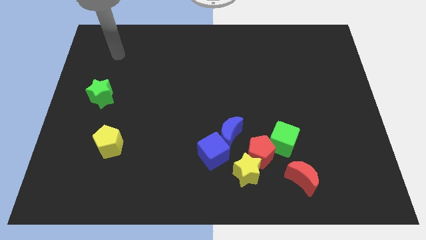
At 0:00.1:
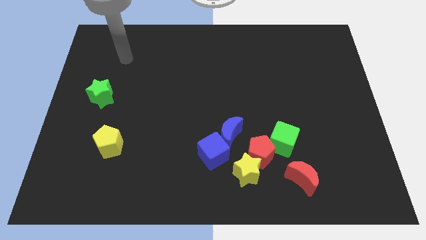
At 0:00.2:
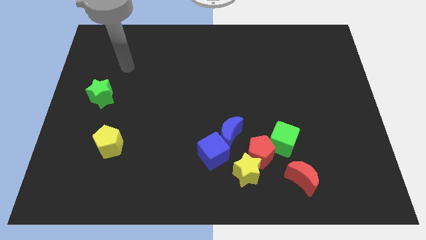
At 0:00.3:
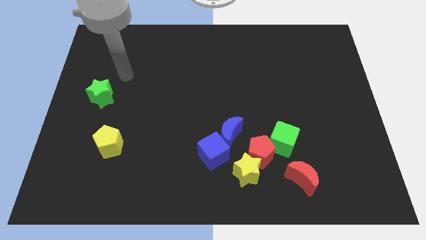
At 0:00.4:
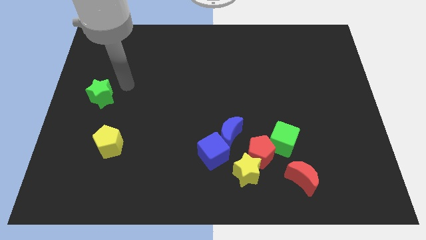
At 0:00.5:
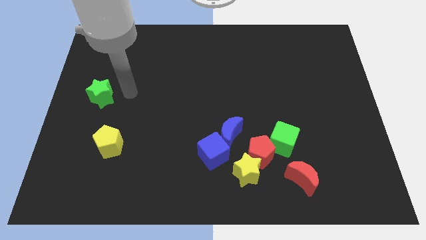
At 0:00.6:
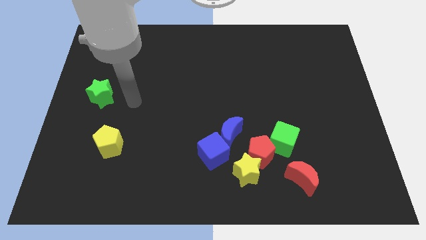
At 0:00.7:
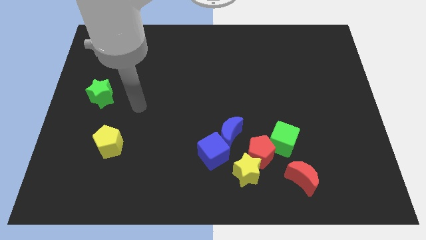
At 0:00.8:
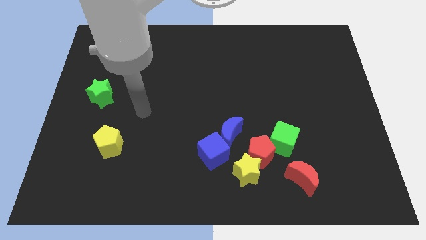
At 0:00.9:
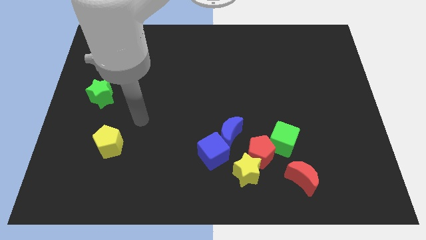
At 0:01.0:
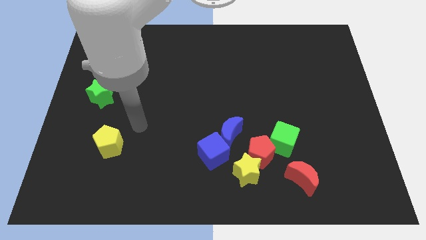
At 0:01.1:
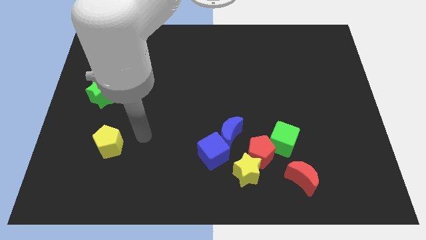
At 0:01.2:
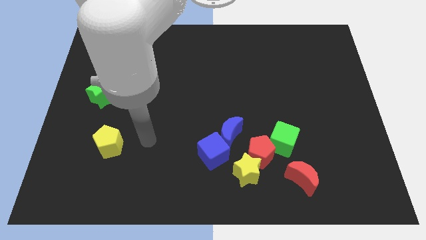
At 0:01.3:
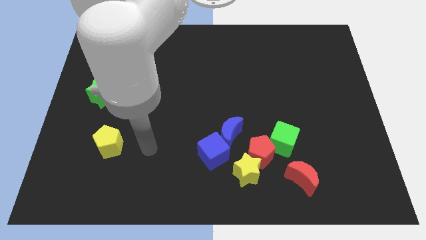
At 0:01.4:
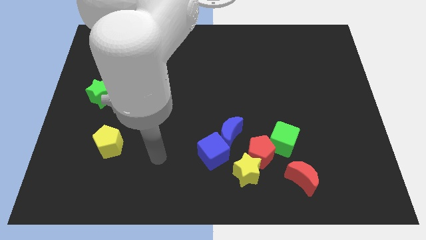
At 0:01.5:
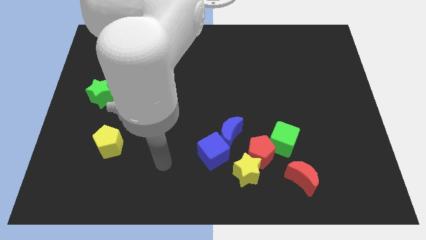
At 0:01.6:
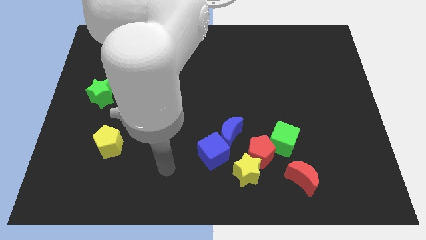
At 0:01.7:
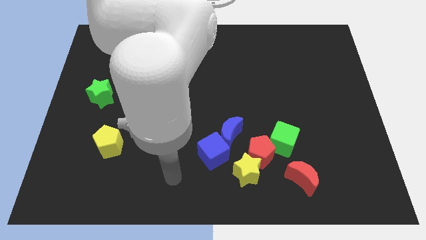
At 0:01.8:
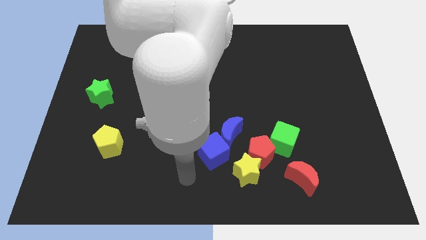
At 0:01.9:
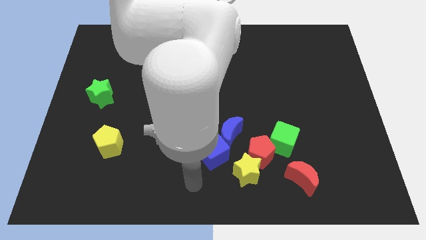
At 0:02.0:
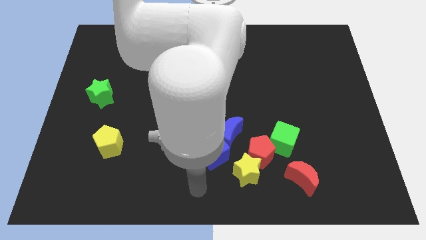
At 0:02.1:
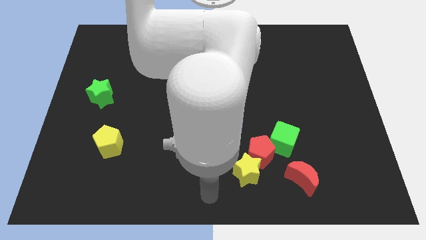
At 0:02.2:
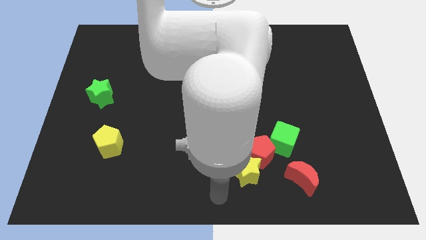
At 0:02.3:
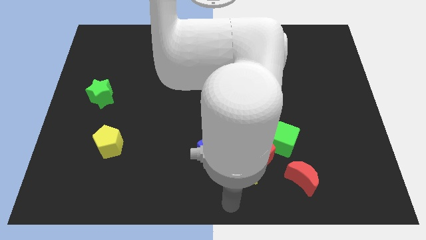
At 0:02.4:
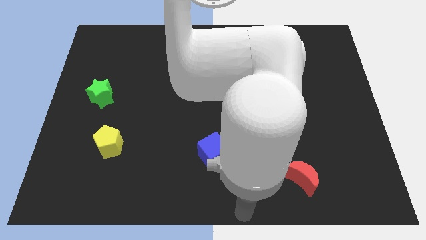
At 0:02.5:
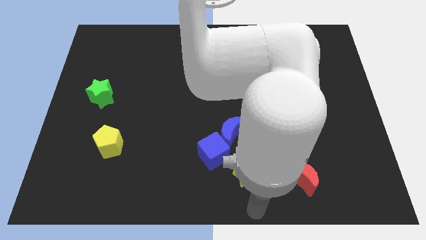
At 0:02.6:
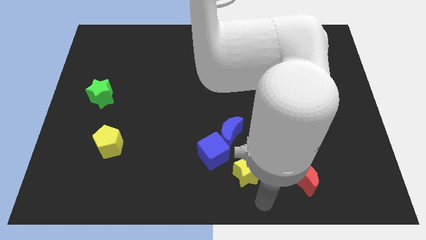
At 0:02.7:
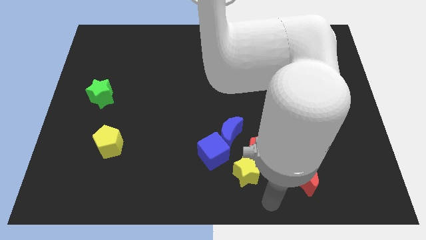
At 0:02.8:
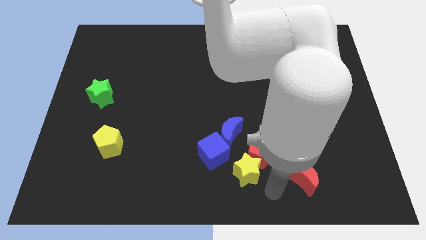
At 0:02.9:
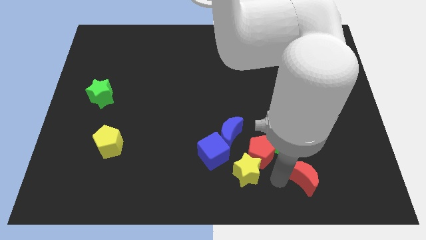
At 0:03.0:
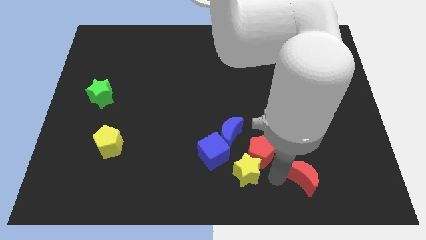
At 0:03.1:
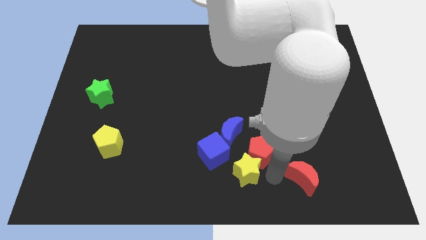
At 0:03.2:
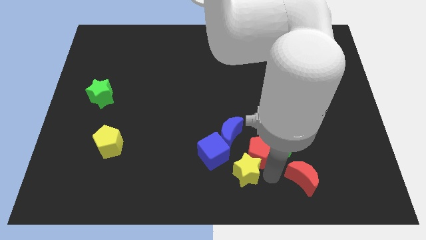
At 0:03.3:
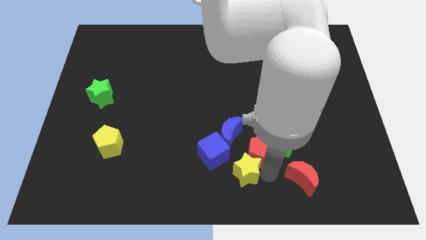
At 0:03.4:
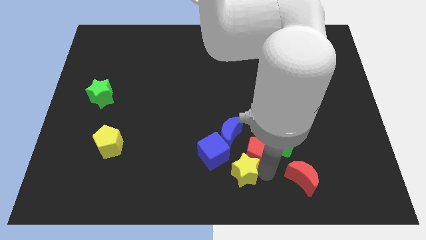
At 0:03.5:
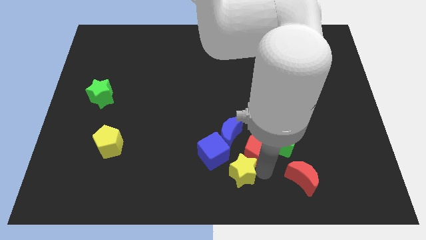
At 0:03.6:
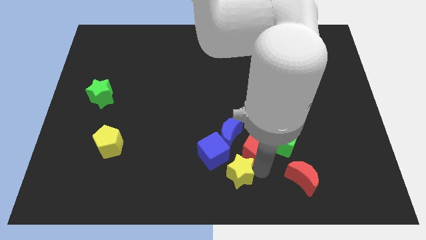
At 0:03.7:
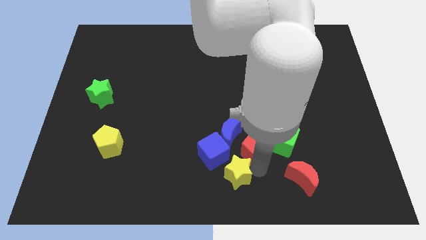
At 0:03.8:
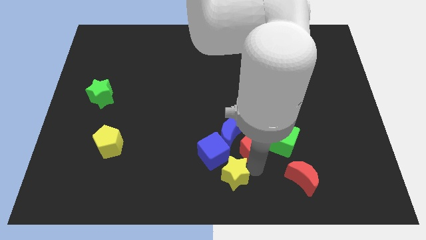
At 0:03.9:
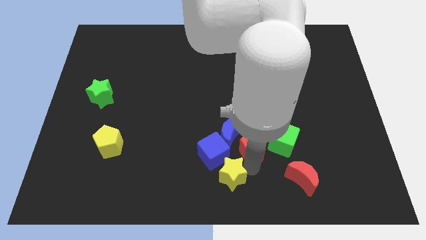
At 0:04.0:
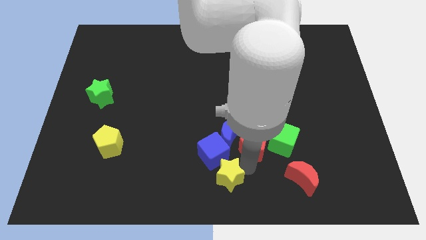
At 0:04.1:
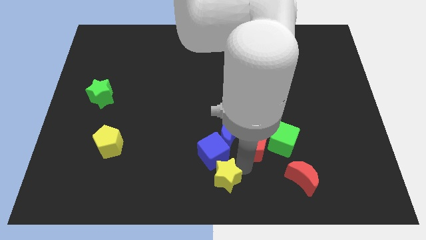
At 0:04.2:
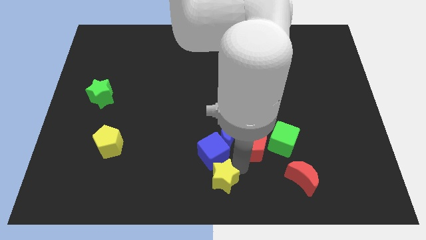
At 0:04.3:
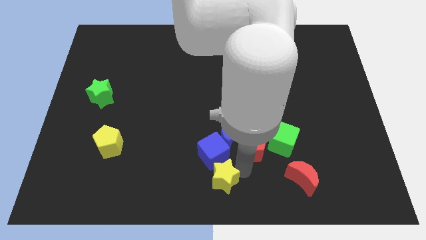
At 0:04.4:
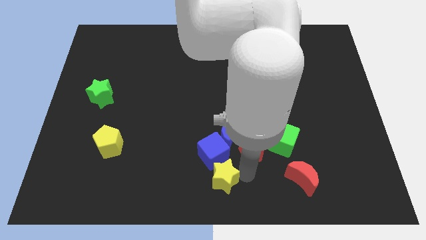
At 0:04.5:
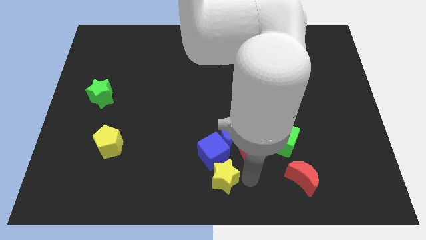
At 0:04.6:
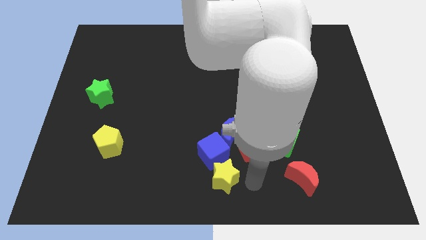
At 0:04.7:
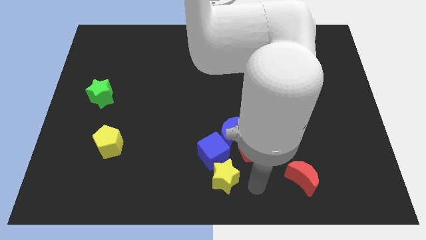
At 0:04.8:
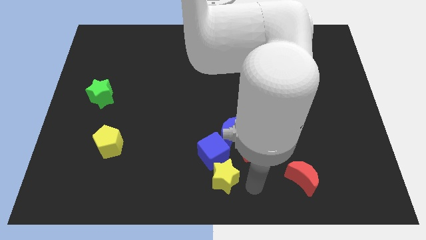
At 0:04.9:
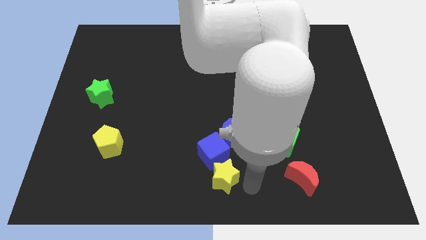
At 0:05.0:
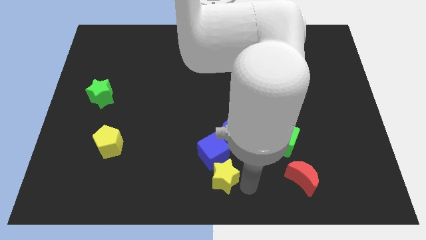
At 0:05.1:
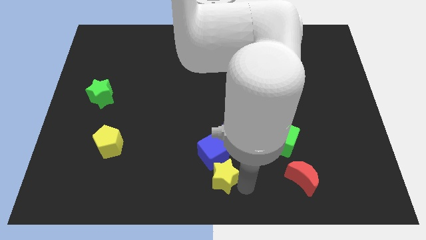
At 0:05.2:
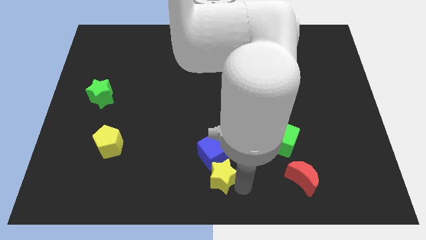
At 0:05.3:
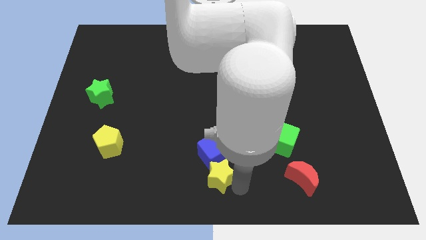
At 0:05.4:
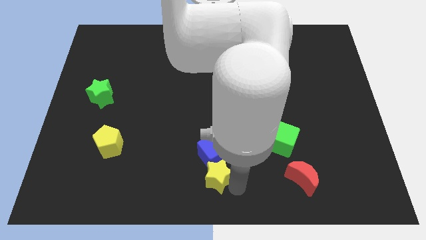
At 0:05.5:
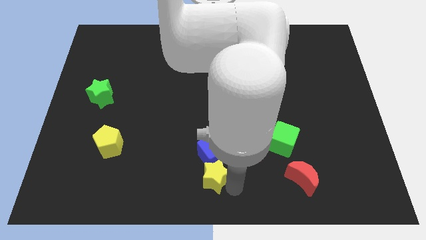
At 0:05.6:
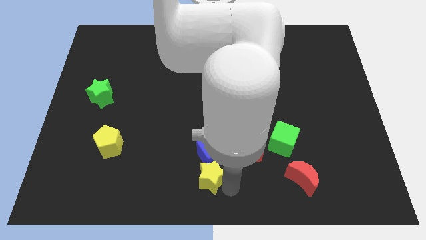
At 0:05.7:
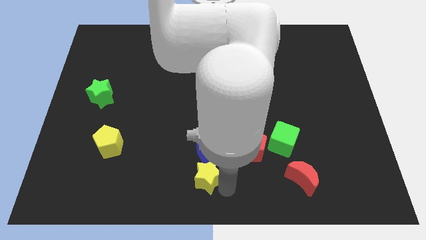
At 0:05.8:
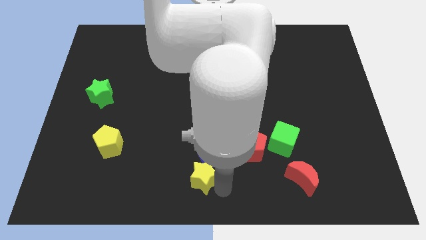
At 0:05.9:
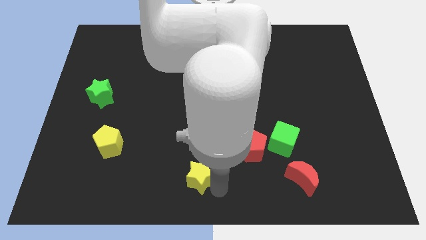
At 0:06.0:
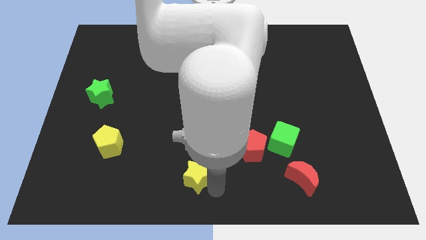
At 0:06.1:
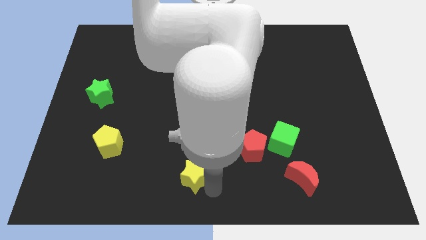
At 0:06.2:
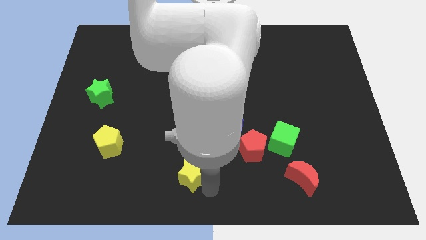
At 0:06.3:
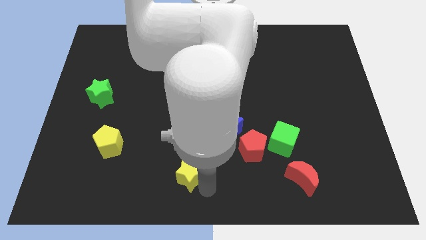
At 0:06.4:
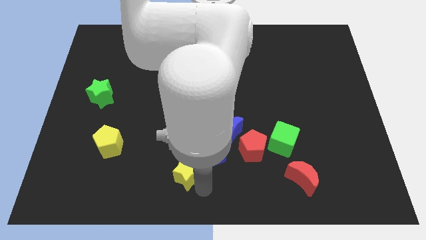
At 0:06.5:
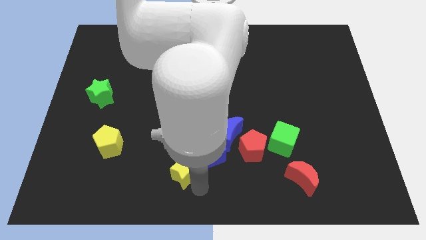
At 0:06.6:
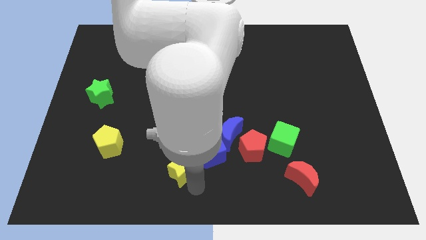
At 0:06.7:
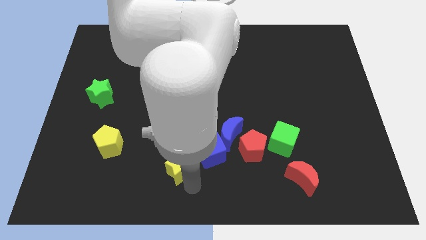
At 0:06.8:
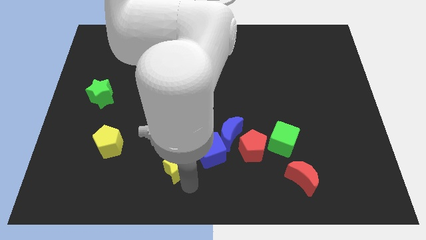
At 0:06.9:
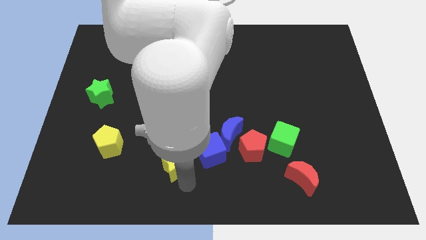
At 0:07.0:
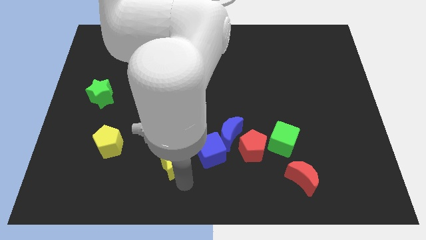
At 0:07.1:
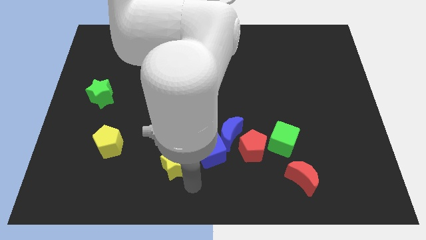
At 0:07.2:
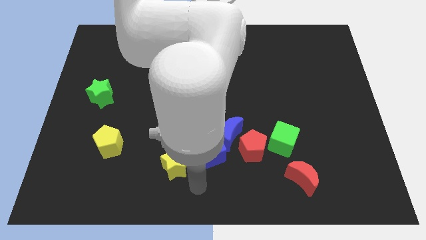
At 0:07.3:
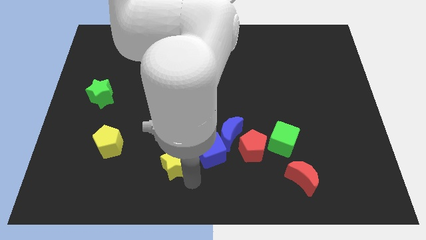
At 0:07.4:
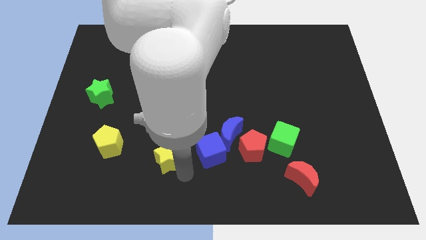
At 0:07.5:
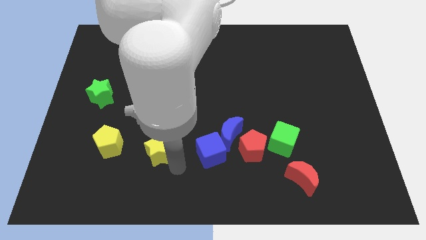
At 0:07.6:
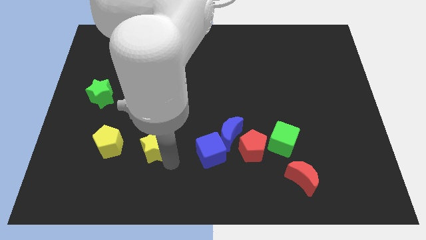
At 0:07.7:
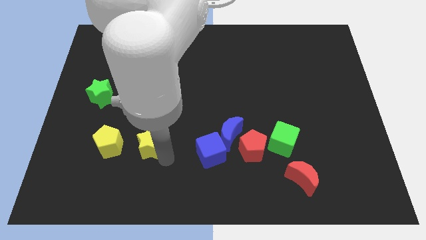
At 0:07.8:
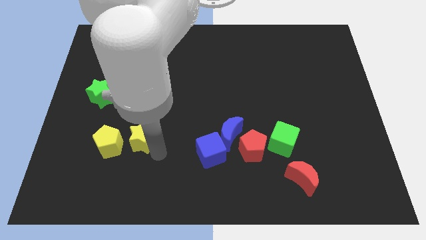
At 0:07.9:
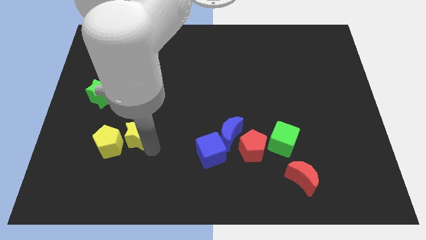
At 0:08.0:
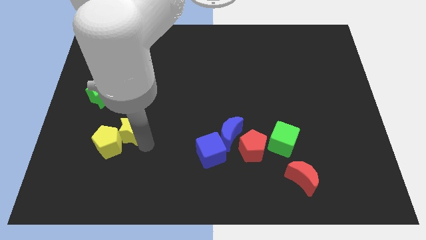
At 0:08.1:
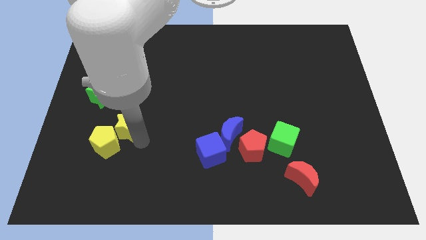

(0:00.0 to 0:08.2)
move the yellow star above the yellow pentagon
